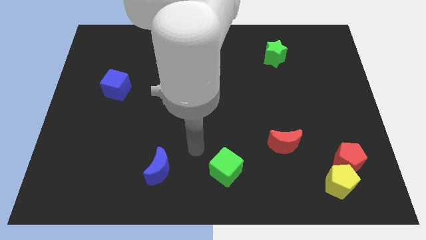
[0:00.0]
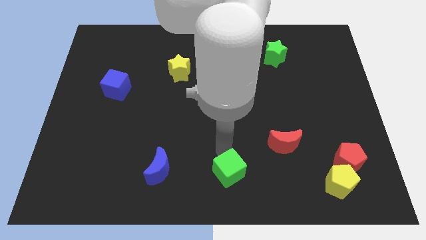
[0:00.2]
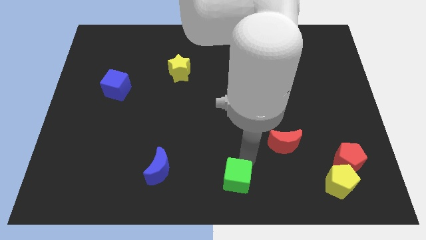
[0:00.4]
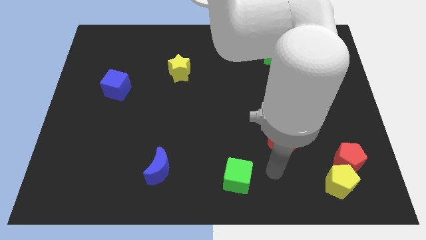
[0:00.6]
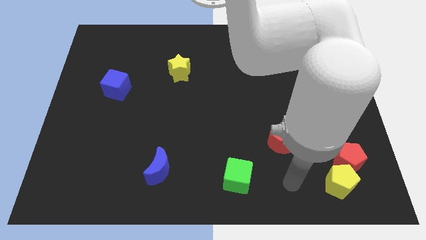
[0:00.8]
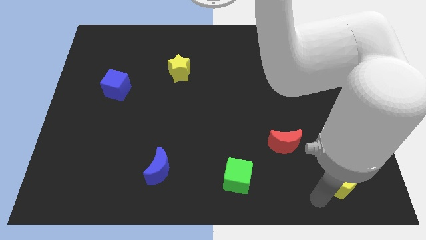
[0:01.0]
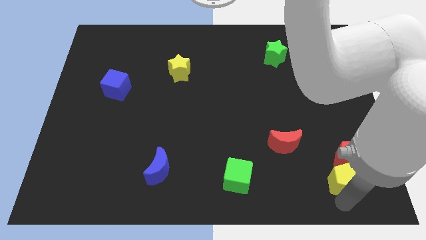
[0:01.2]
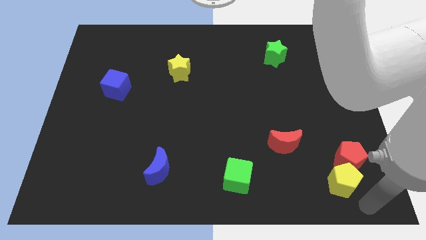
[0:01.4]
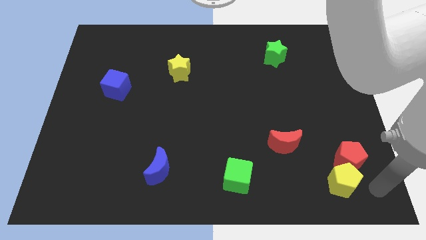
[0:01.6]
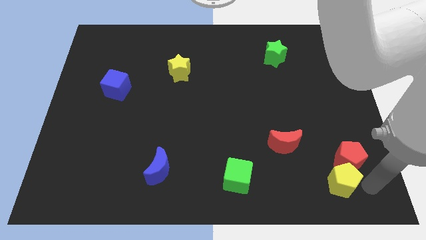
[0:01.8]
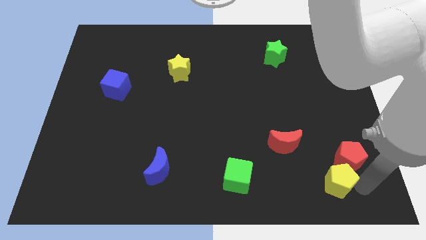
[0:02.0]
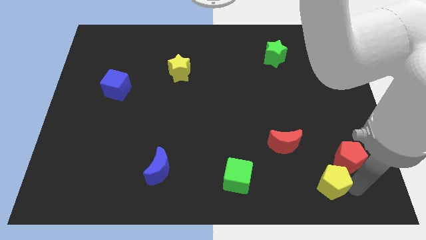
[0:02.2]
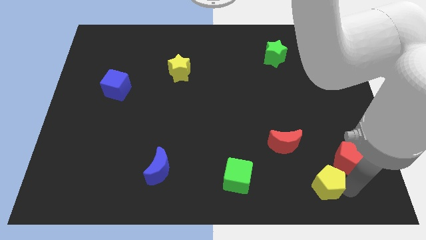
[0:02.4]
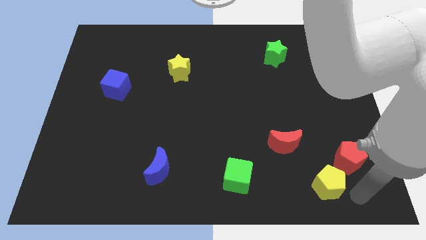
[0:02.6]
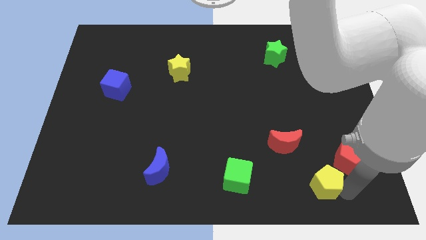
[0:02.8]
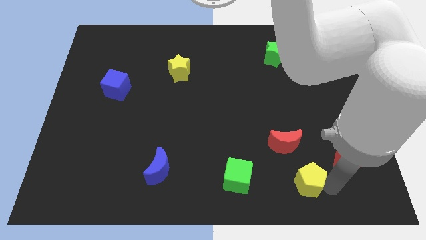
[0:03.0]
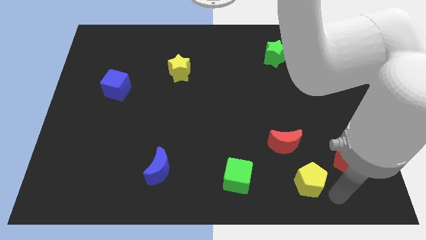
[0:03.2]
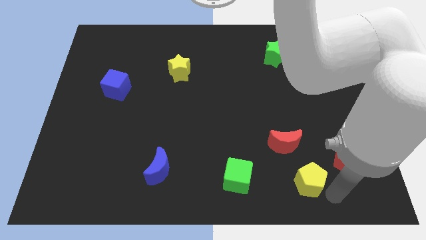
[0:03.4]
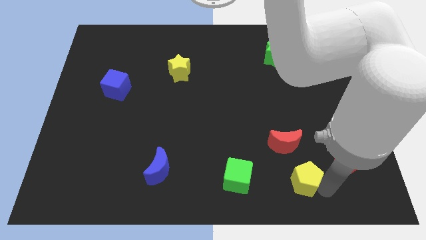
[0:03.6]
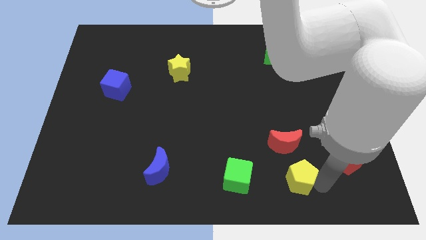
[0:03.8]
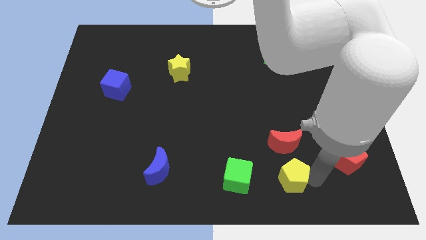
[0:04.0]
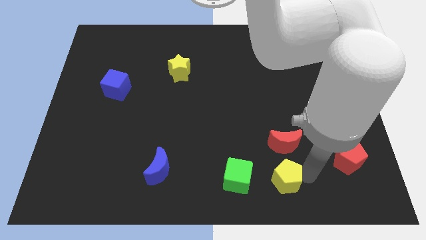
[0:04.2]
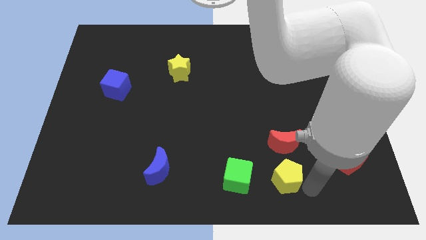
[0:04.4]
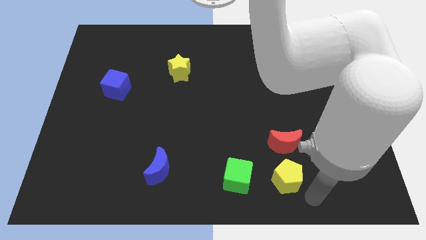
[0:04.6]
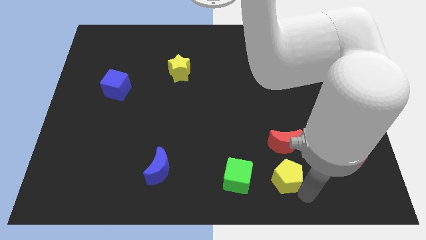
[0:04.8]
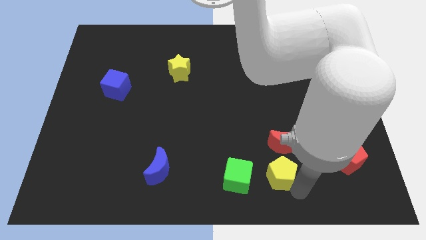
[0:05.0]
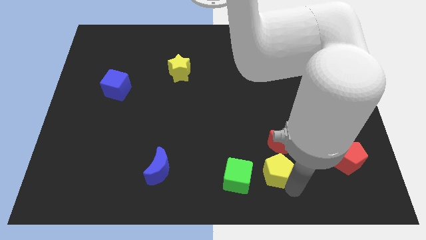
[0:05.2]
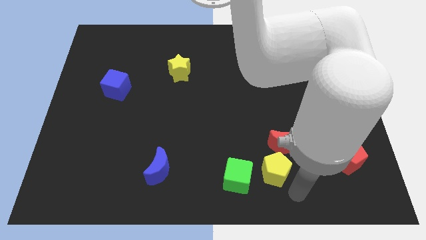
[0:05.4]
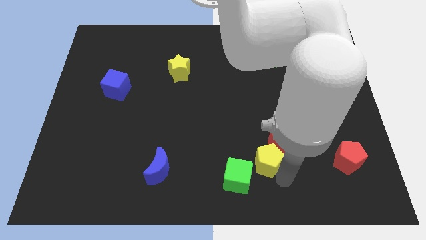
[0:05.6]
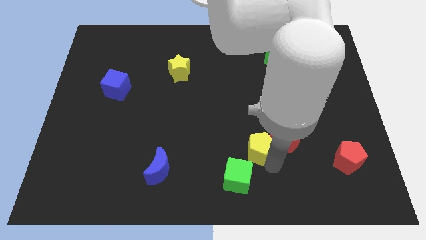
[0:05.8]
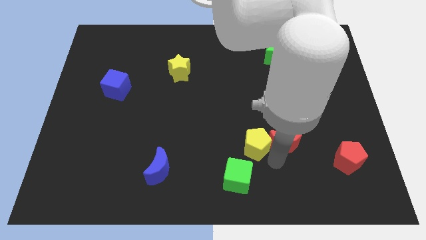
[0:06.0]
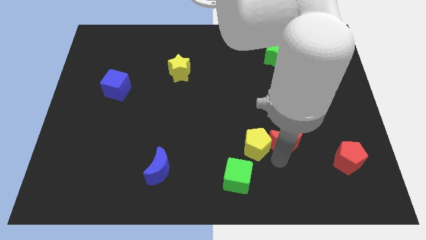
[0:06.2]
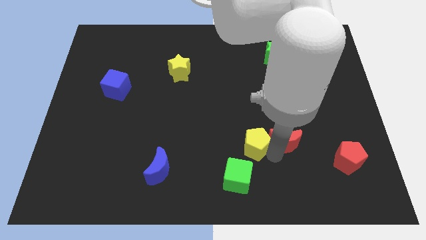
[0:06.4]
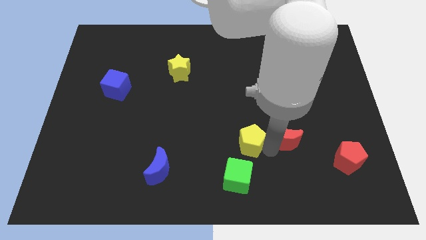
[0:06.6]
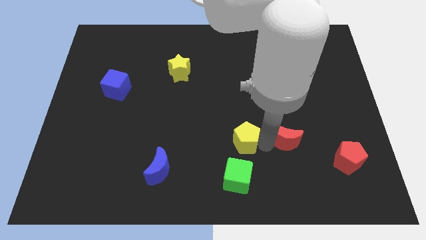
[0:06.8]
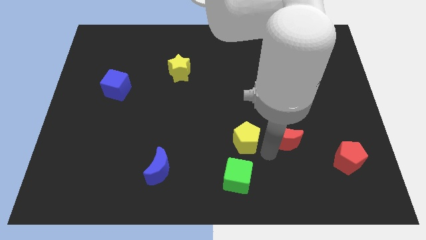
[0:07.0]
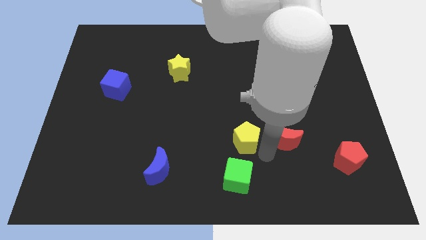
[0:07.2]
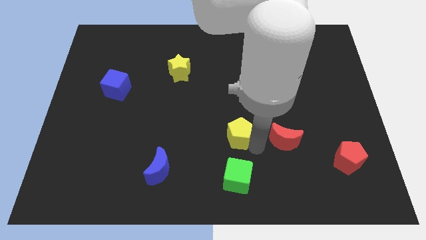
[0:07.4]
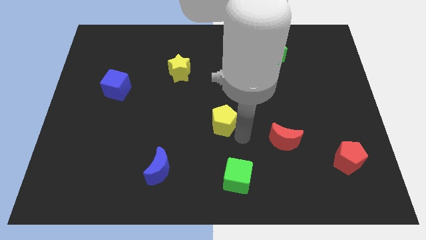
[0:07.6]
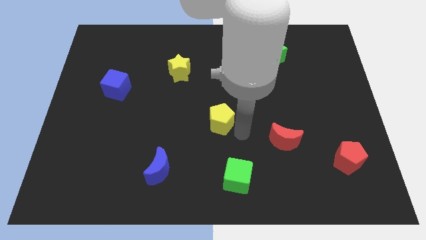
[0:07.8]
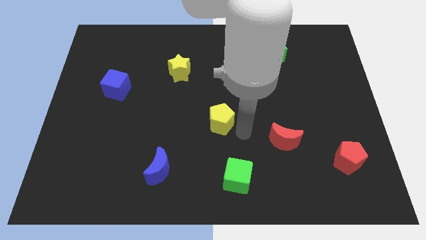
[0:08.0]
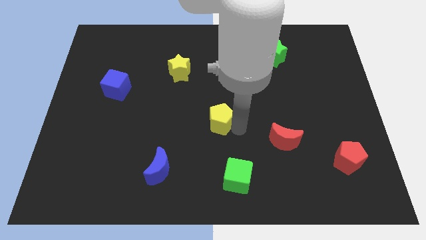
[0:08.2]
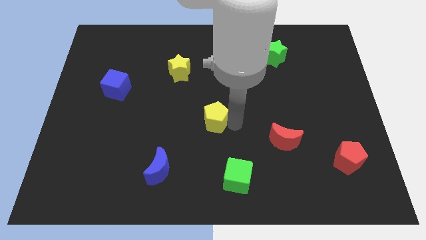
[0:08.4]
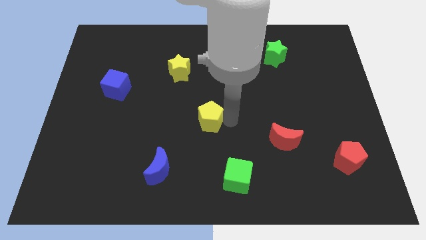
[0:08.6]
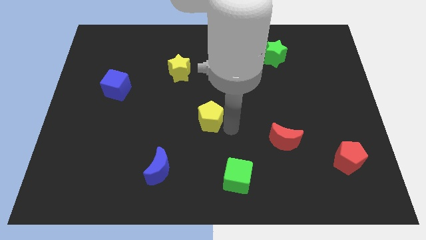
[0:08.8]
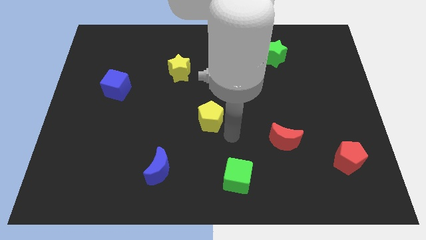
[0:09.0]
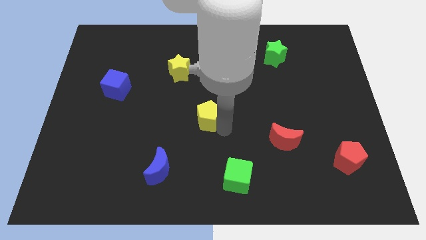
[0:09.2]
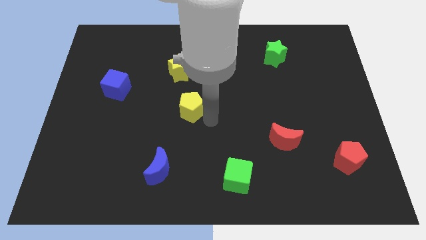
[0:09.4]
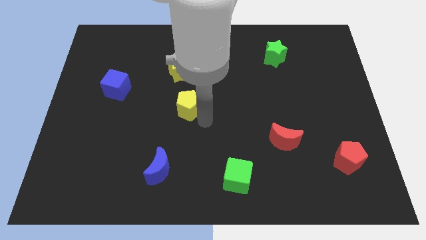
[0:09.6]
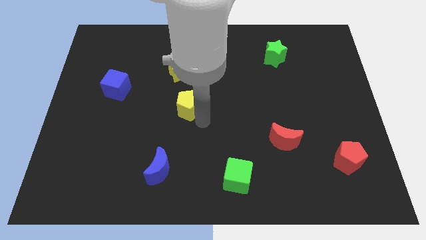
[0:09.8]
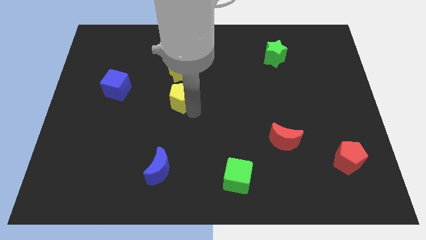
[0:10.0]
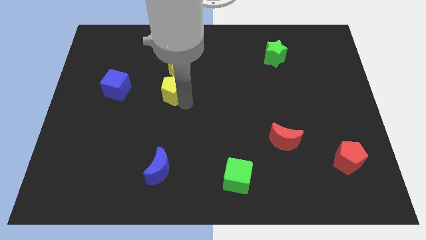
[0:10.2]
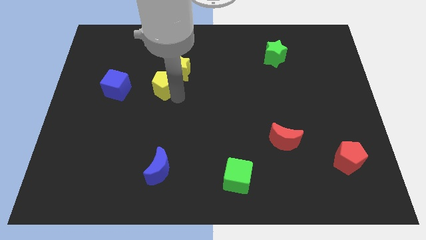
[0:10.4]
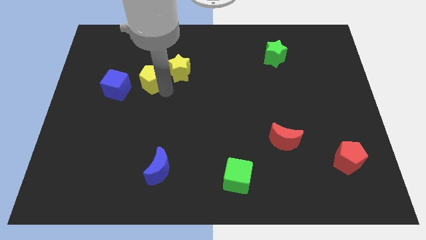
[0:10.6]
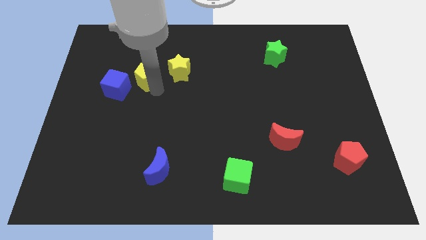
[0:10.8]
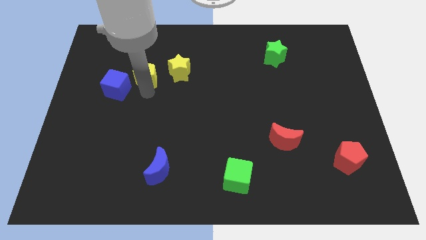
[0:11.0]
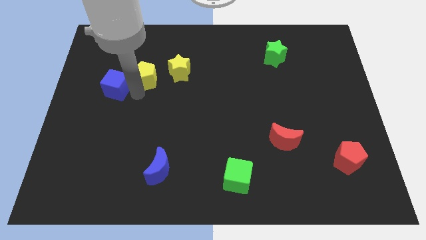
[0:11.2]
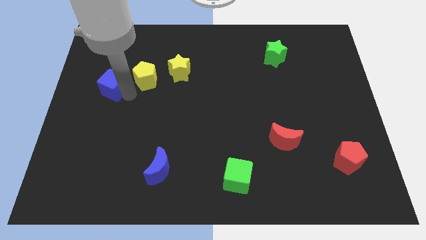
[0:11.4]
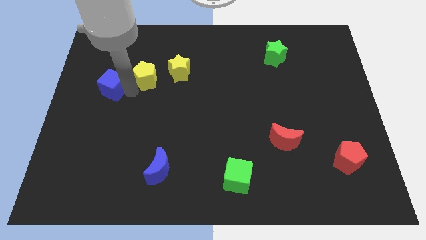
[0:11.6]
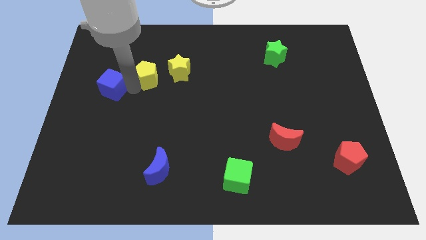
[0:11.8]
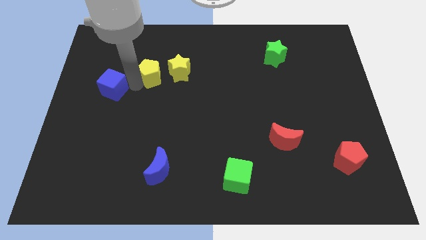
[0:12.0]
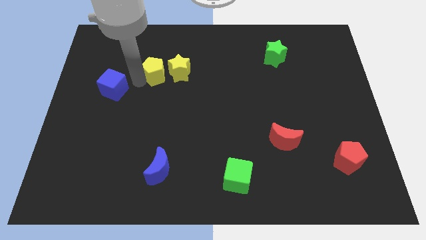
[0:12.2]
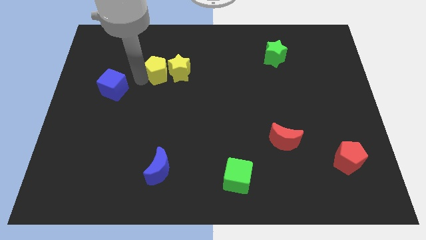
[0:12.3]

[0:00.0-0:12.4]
put the yellow pentagon to the top left side of the yellow star

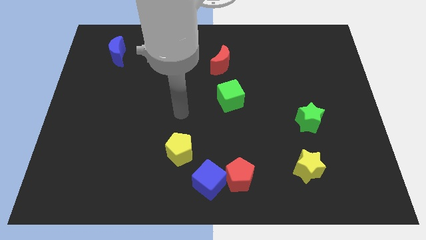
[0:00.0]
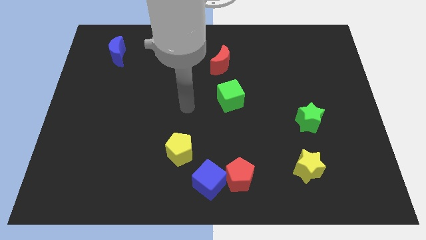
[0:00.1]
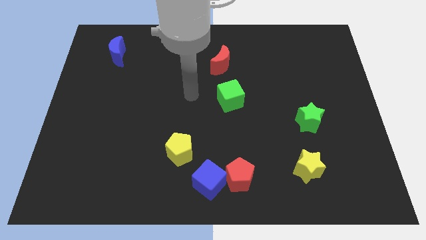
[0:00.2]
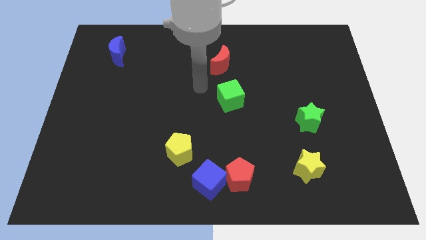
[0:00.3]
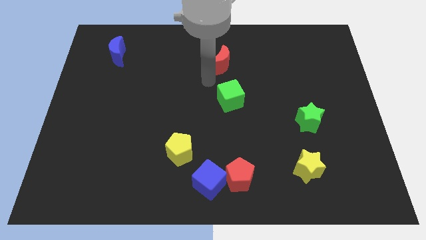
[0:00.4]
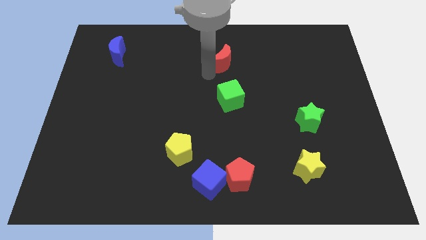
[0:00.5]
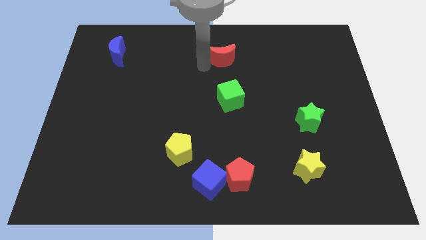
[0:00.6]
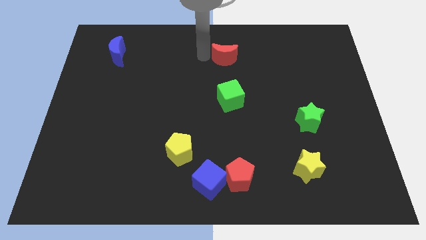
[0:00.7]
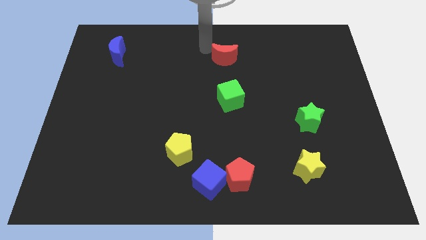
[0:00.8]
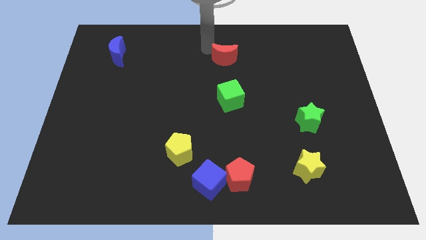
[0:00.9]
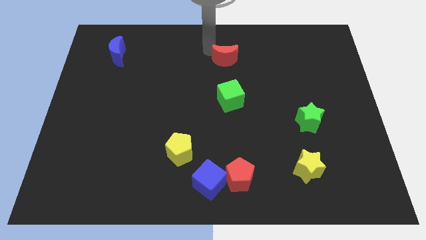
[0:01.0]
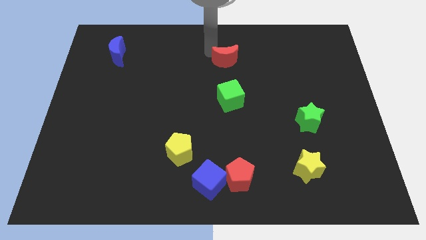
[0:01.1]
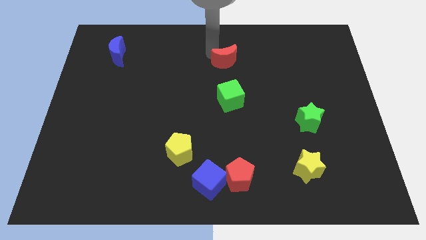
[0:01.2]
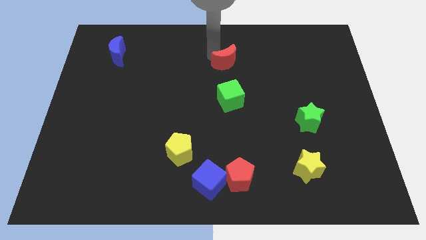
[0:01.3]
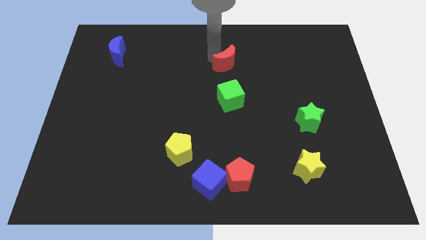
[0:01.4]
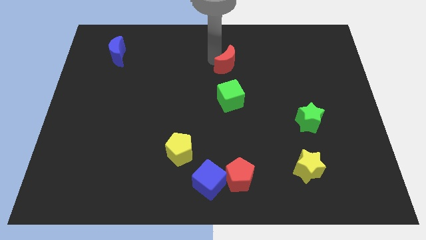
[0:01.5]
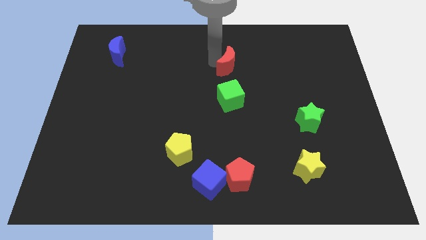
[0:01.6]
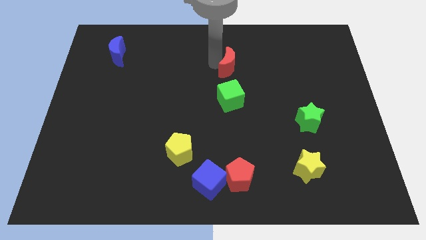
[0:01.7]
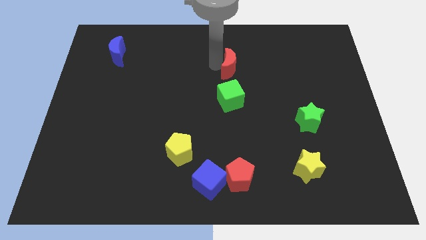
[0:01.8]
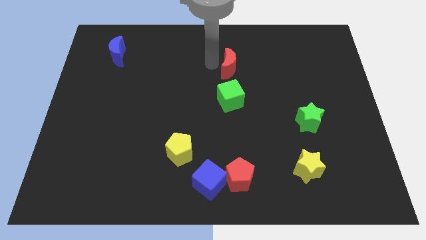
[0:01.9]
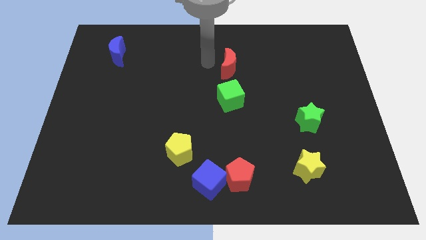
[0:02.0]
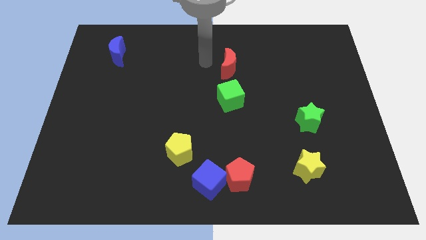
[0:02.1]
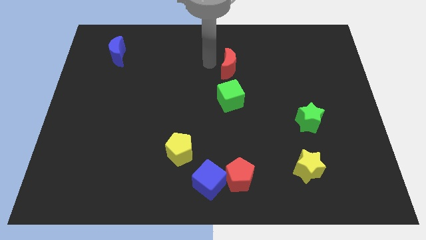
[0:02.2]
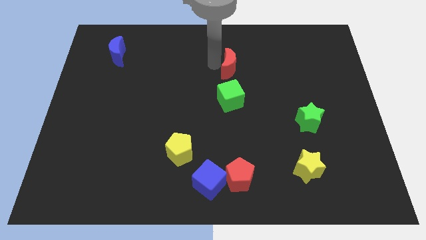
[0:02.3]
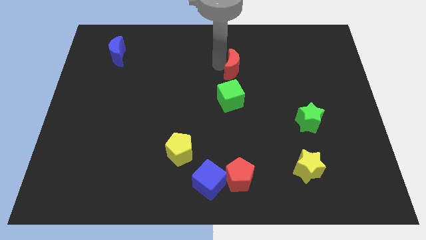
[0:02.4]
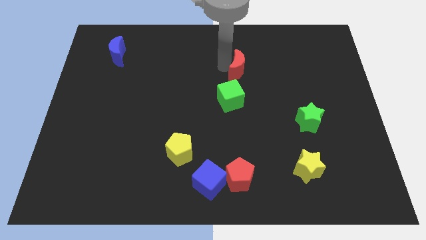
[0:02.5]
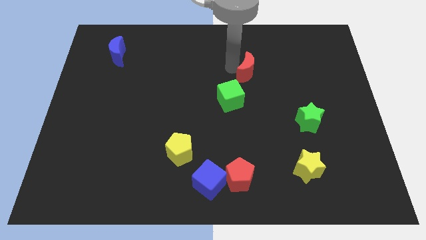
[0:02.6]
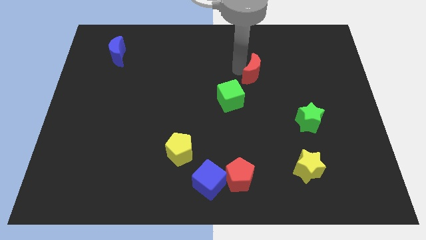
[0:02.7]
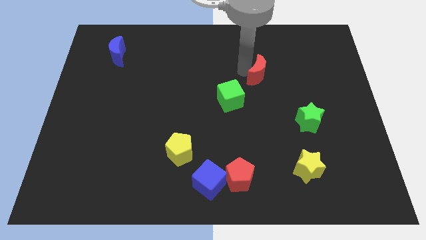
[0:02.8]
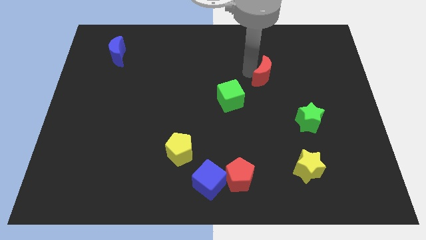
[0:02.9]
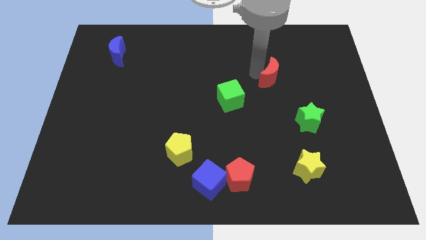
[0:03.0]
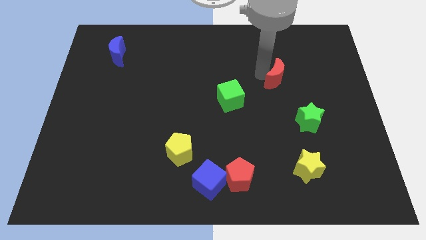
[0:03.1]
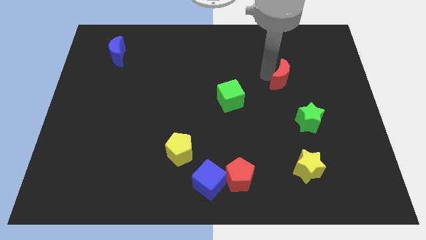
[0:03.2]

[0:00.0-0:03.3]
slide the red moon to the top side of the green star
